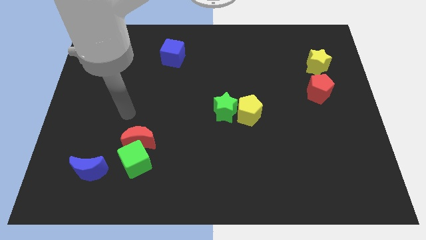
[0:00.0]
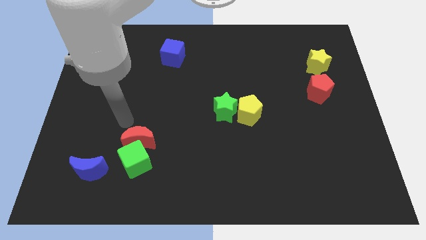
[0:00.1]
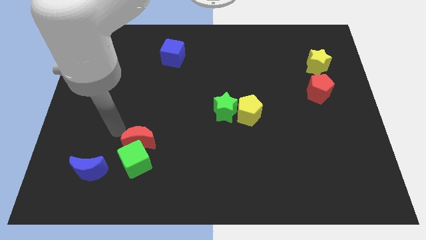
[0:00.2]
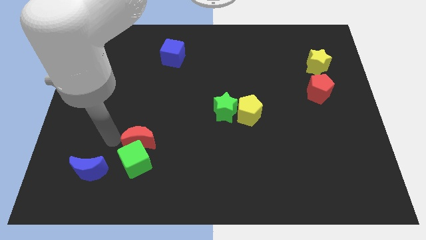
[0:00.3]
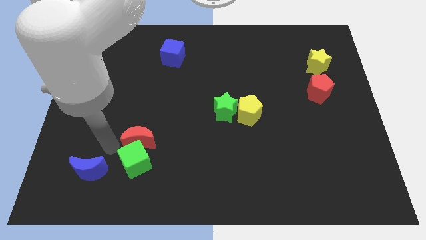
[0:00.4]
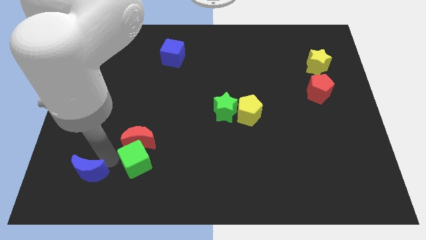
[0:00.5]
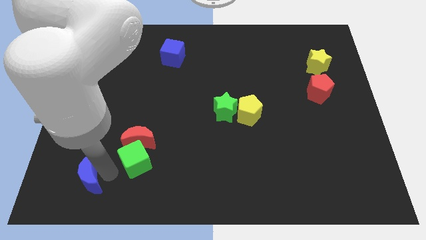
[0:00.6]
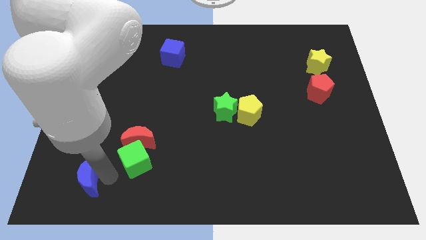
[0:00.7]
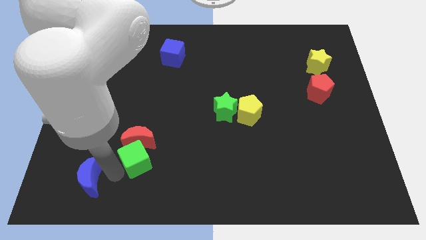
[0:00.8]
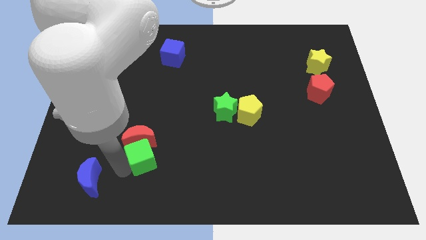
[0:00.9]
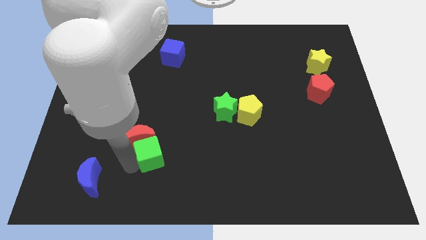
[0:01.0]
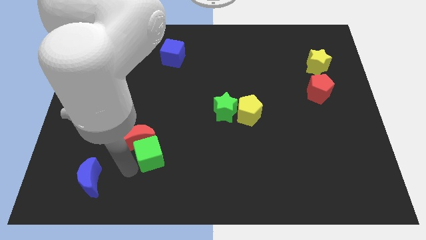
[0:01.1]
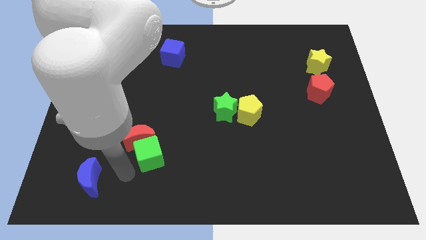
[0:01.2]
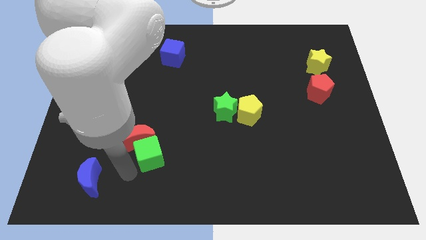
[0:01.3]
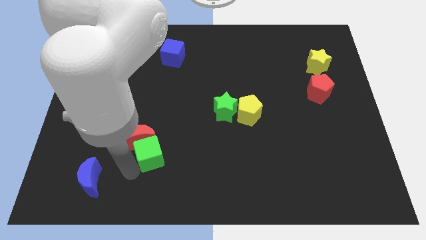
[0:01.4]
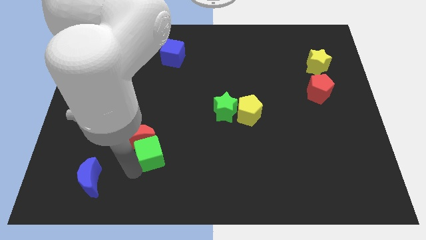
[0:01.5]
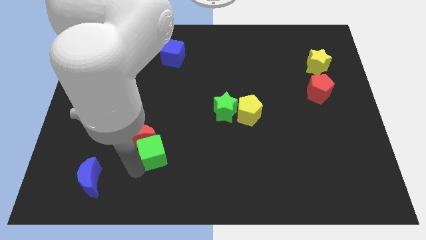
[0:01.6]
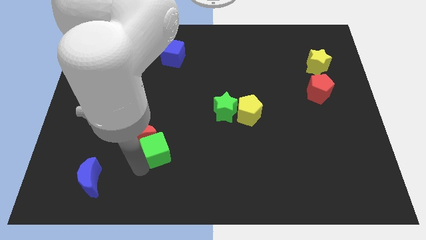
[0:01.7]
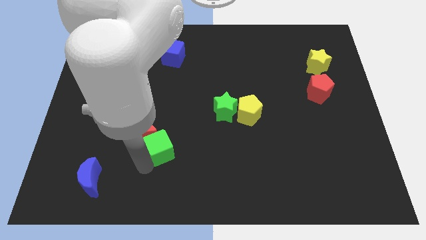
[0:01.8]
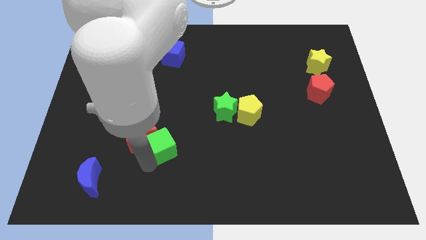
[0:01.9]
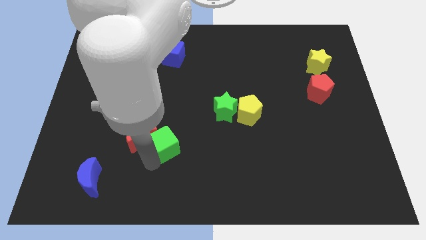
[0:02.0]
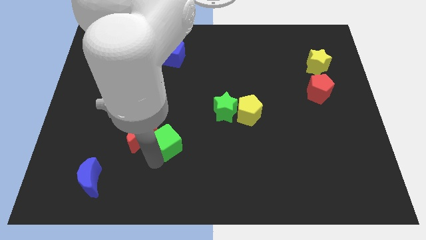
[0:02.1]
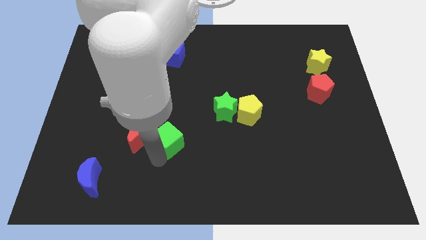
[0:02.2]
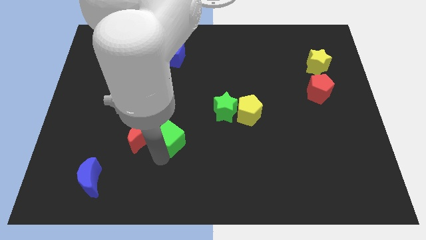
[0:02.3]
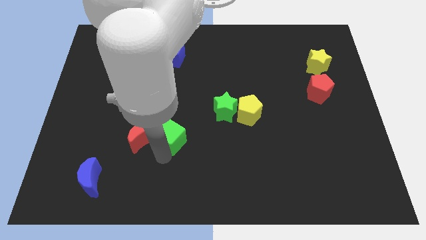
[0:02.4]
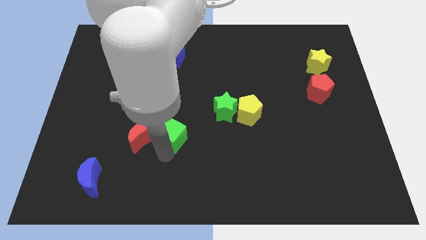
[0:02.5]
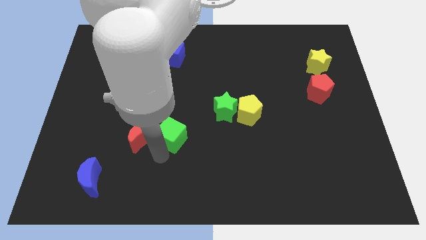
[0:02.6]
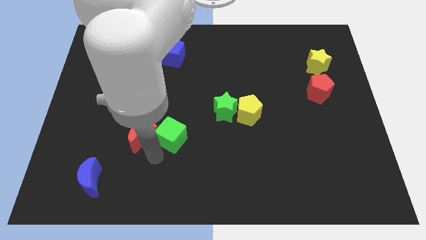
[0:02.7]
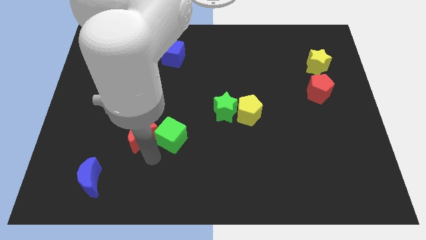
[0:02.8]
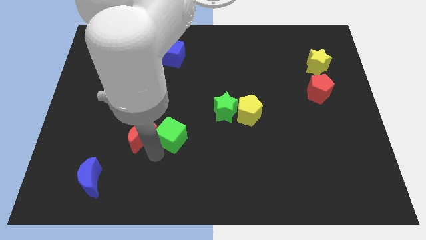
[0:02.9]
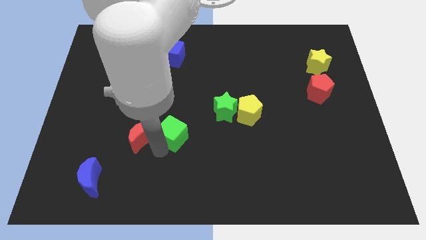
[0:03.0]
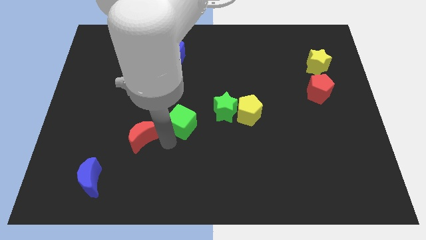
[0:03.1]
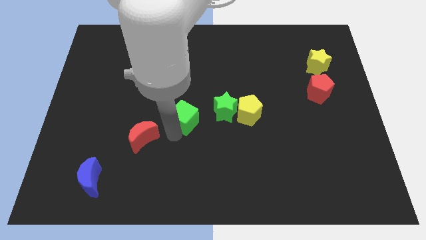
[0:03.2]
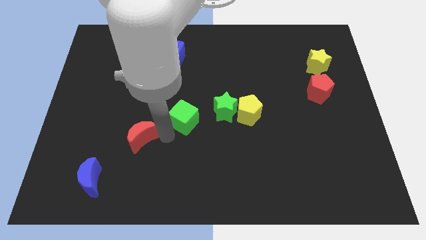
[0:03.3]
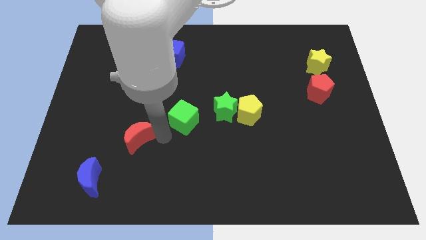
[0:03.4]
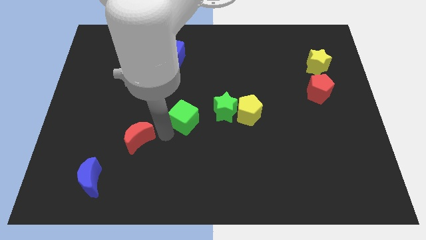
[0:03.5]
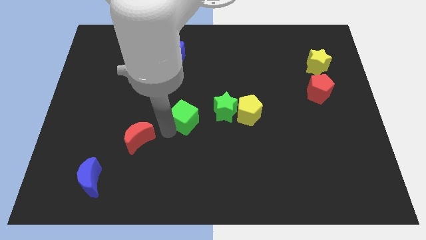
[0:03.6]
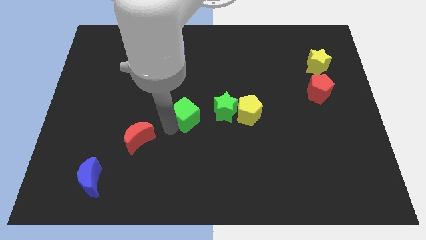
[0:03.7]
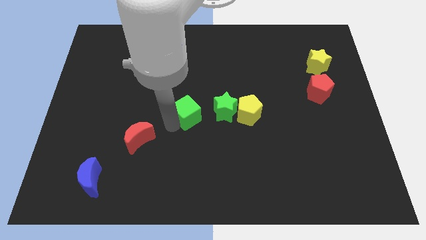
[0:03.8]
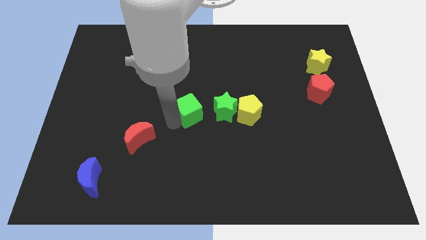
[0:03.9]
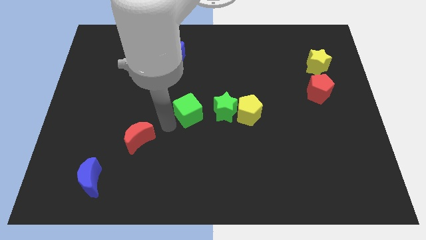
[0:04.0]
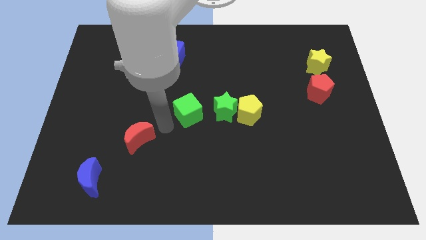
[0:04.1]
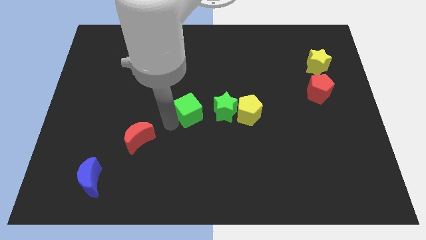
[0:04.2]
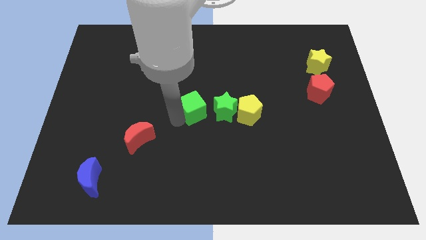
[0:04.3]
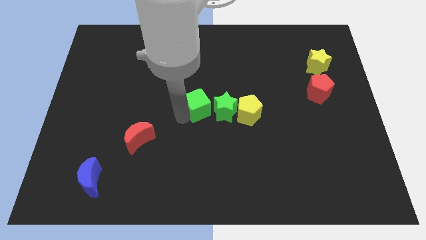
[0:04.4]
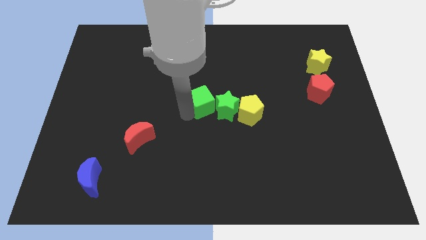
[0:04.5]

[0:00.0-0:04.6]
slide the green cube diagonally up and right

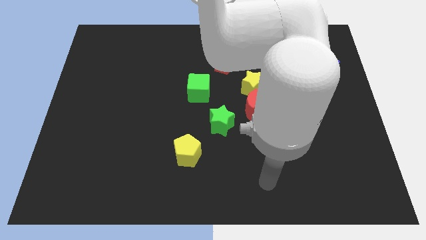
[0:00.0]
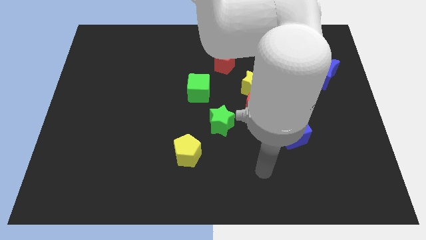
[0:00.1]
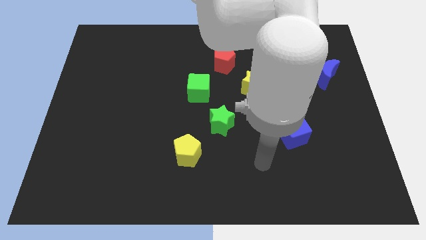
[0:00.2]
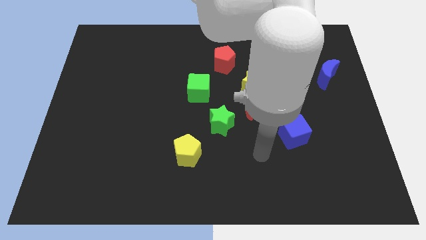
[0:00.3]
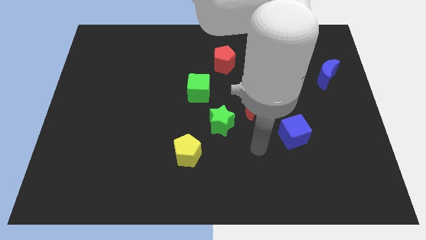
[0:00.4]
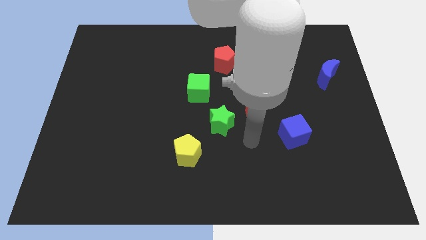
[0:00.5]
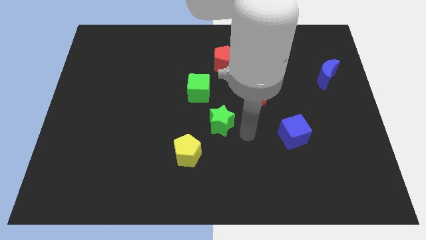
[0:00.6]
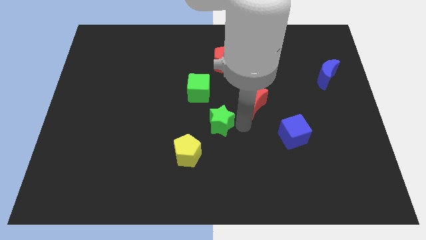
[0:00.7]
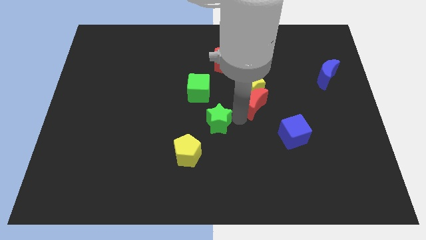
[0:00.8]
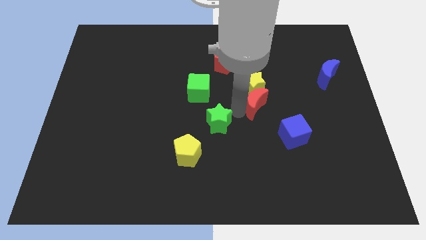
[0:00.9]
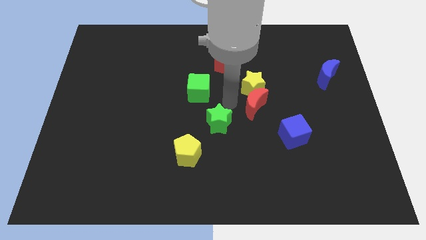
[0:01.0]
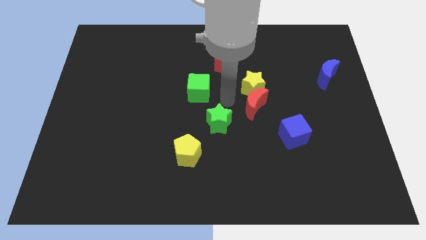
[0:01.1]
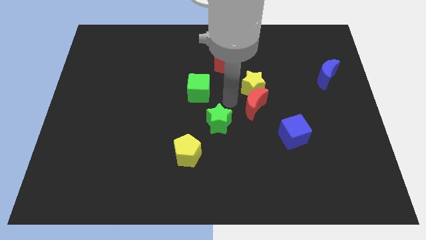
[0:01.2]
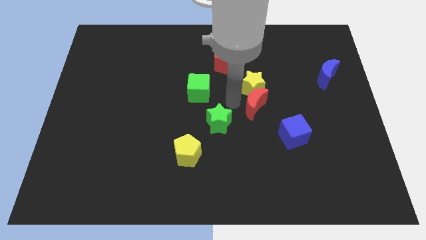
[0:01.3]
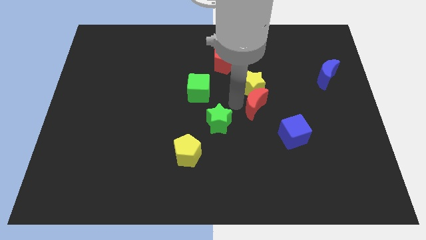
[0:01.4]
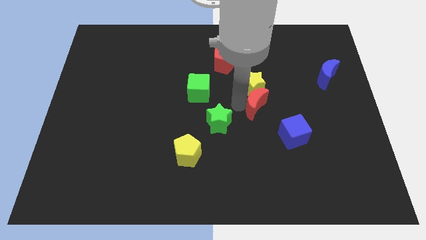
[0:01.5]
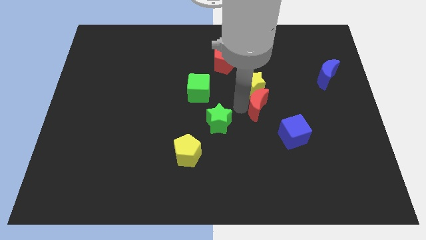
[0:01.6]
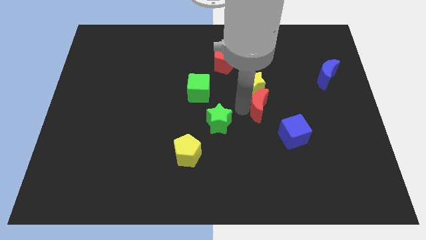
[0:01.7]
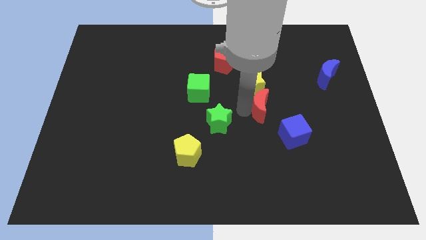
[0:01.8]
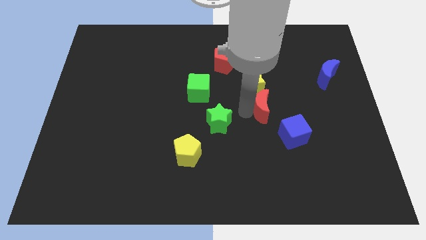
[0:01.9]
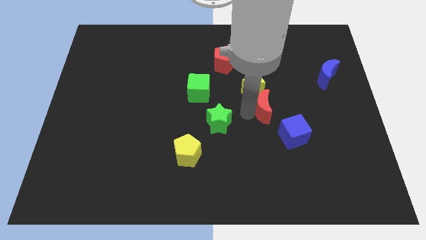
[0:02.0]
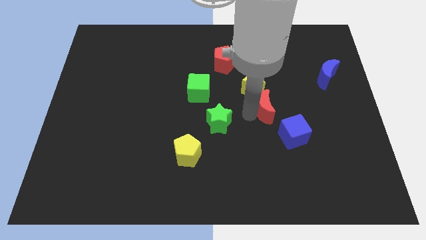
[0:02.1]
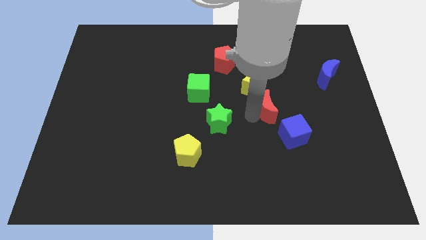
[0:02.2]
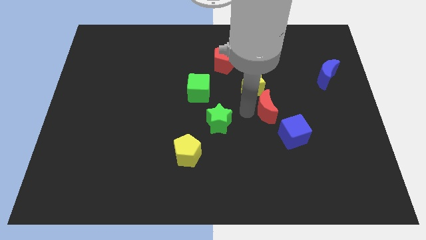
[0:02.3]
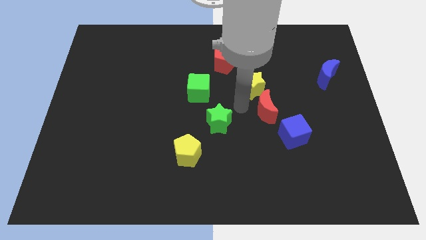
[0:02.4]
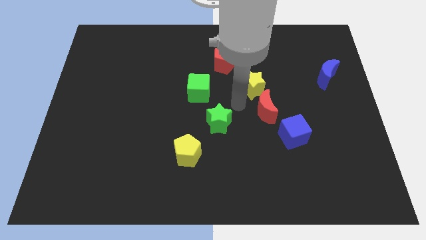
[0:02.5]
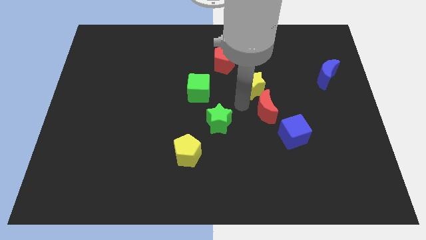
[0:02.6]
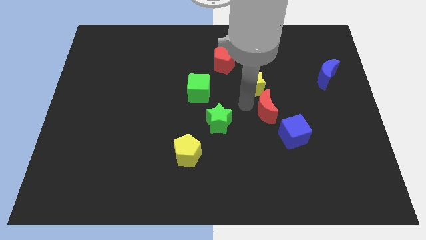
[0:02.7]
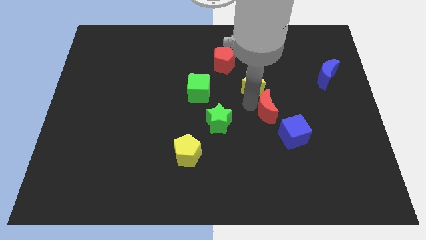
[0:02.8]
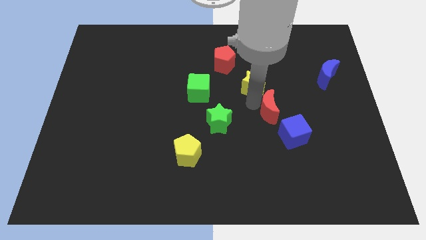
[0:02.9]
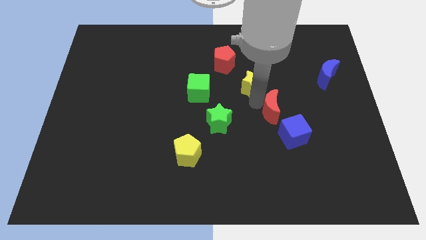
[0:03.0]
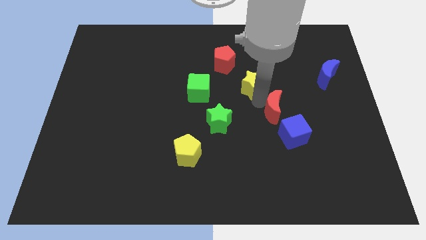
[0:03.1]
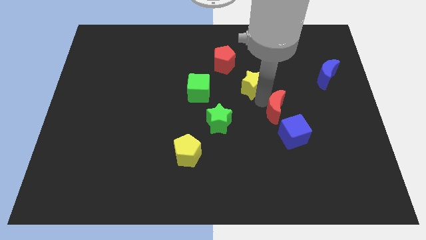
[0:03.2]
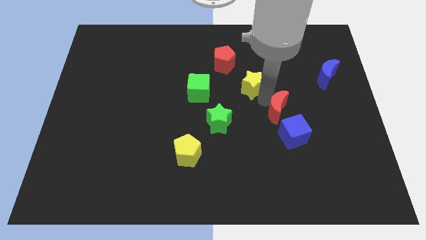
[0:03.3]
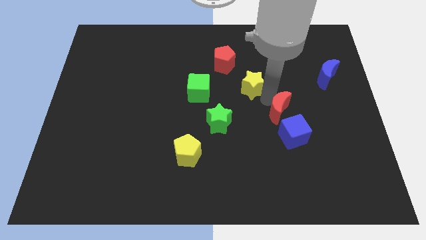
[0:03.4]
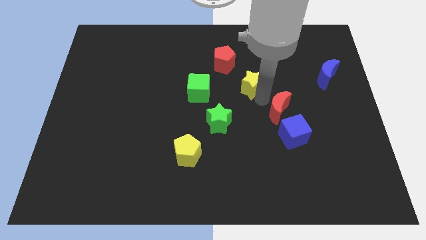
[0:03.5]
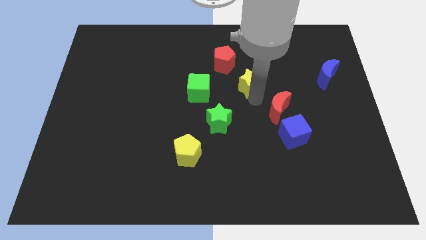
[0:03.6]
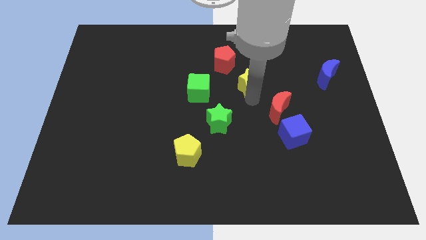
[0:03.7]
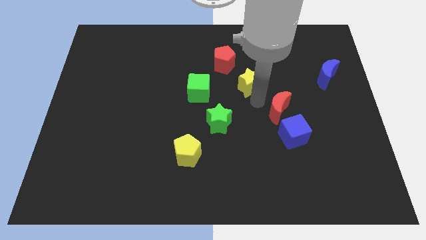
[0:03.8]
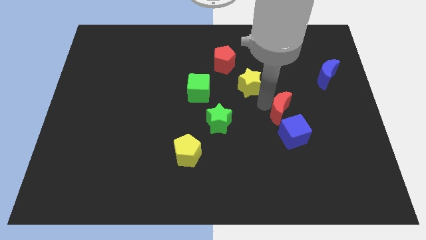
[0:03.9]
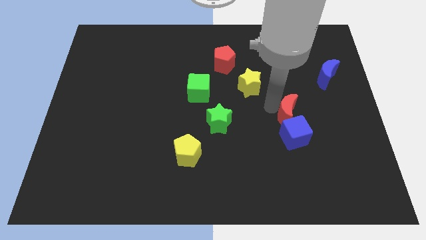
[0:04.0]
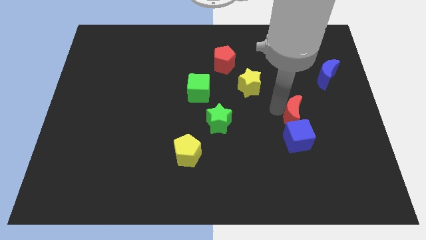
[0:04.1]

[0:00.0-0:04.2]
slightly move the red moon down and to the right
